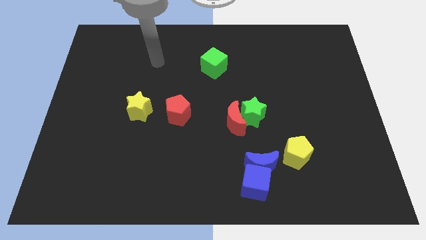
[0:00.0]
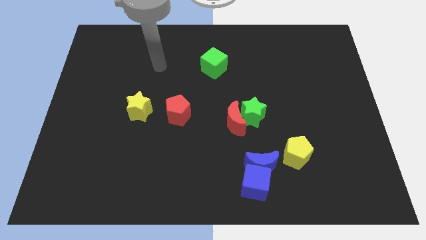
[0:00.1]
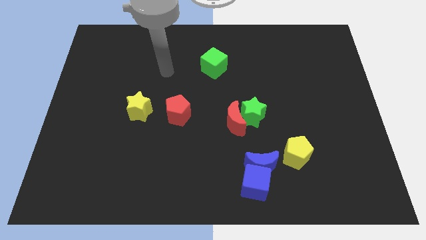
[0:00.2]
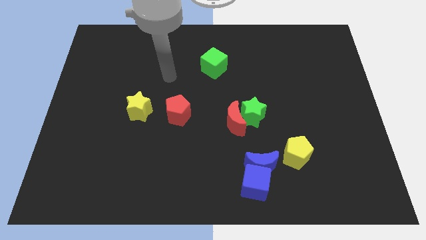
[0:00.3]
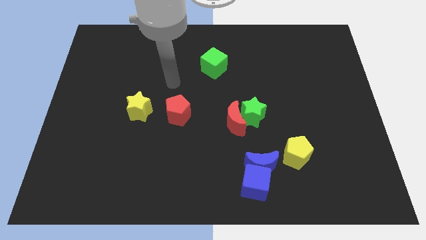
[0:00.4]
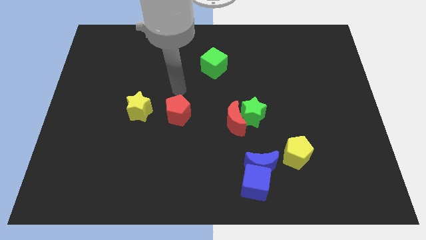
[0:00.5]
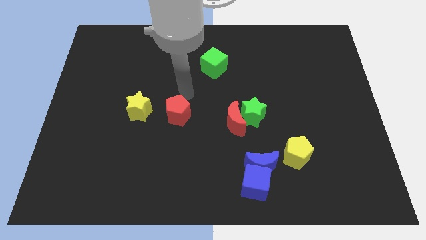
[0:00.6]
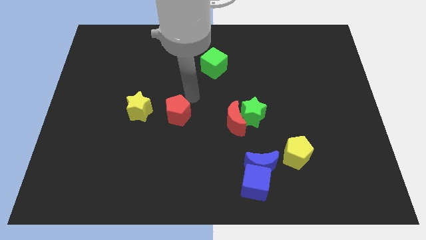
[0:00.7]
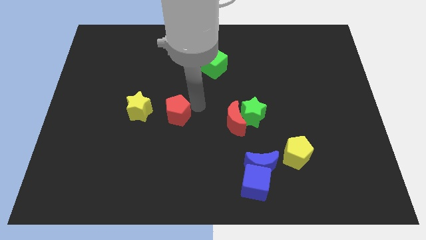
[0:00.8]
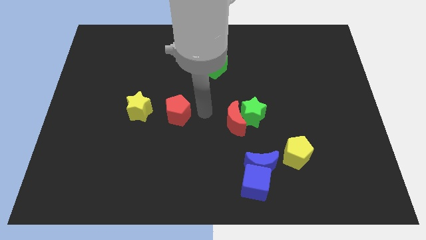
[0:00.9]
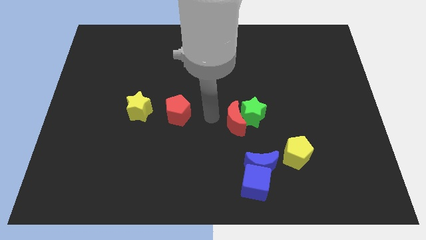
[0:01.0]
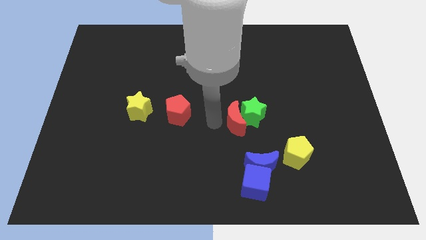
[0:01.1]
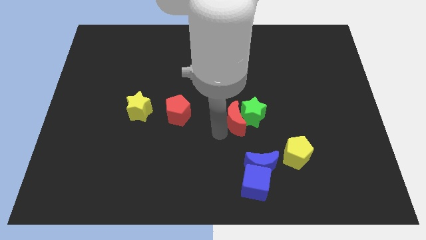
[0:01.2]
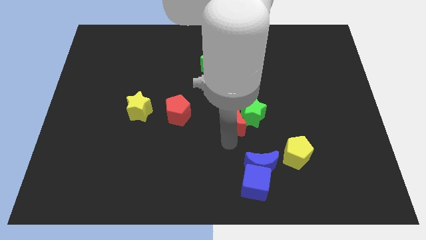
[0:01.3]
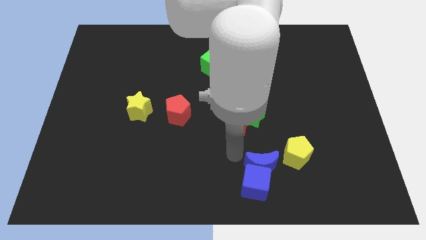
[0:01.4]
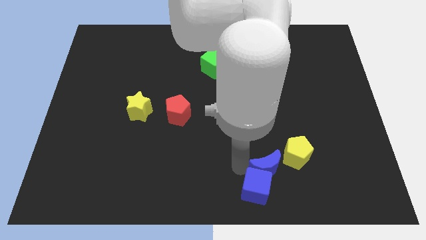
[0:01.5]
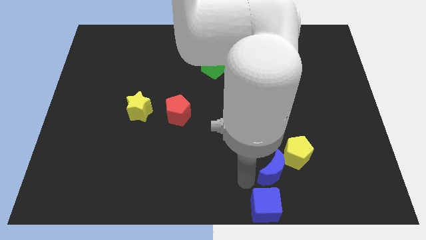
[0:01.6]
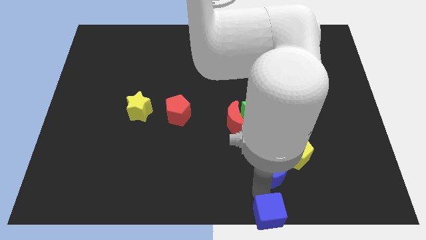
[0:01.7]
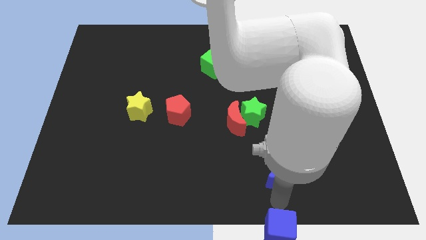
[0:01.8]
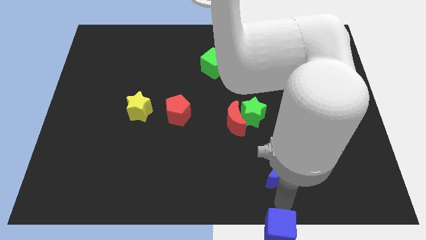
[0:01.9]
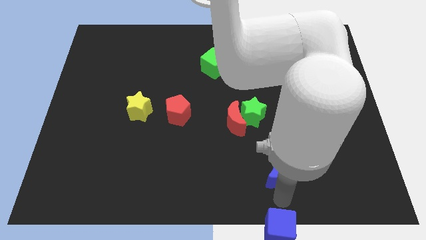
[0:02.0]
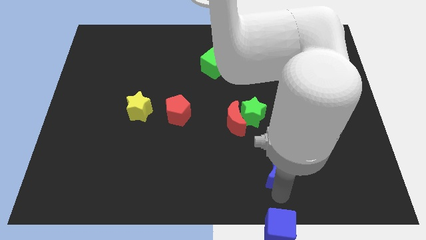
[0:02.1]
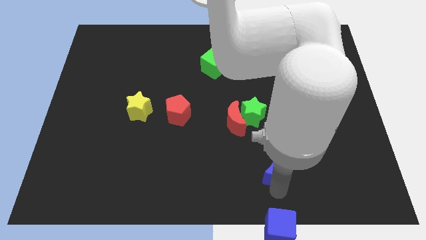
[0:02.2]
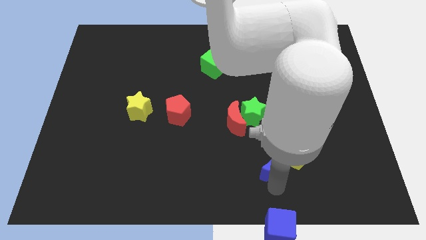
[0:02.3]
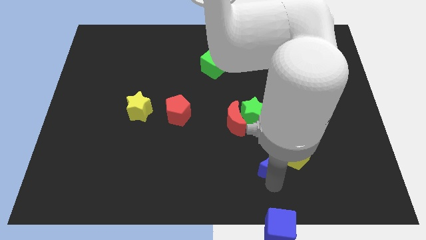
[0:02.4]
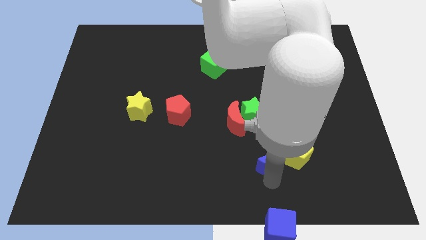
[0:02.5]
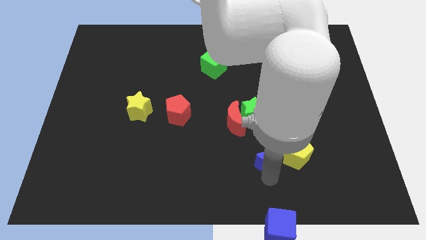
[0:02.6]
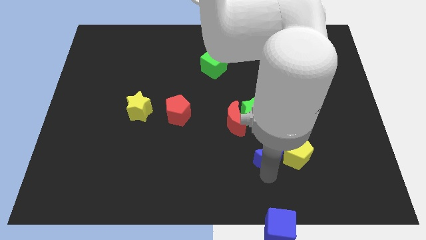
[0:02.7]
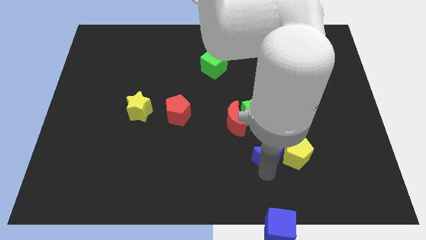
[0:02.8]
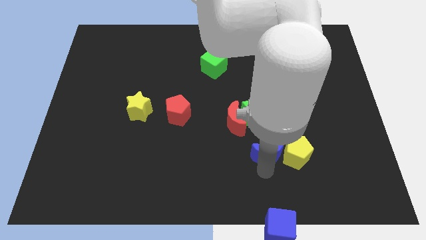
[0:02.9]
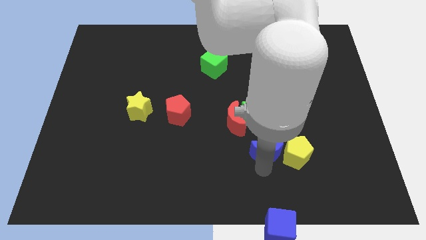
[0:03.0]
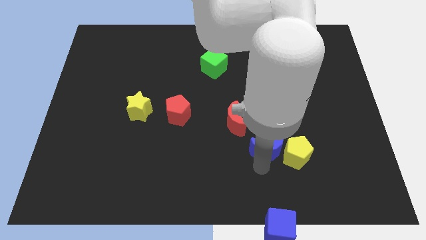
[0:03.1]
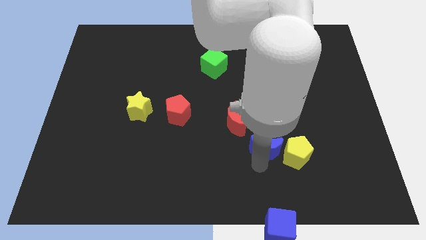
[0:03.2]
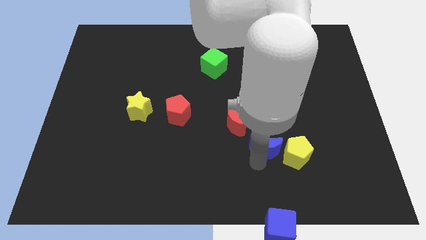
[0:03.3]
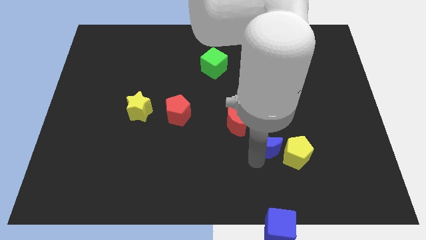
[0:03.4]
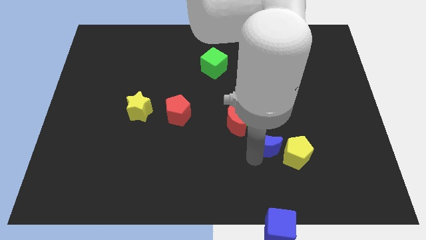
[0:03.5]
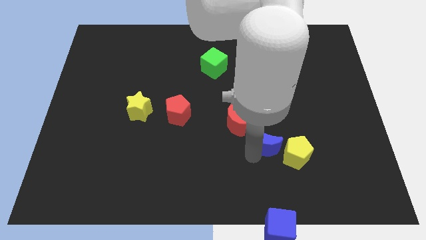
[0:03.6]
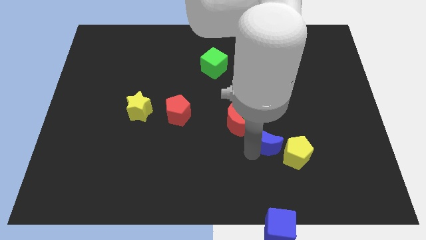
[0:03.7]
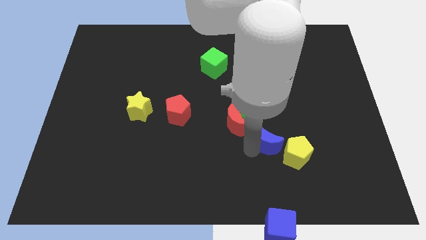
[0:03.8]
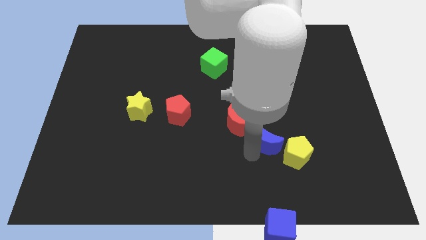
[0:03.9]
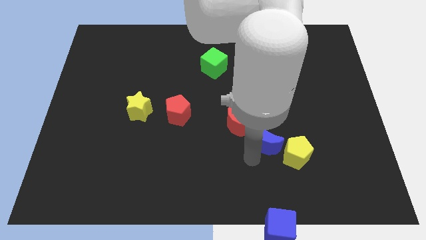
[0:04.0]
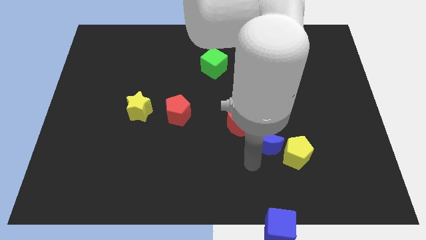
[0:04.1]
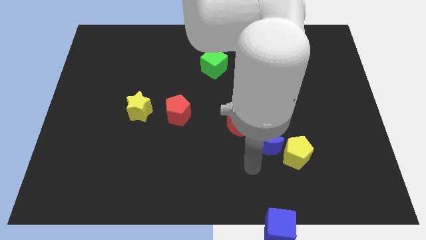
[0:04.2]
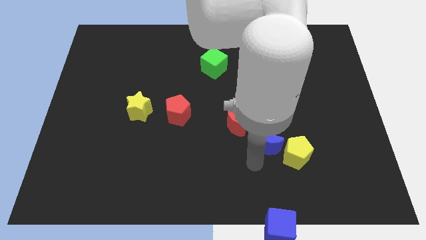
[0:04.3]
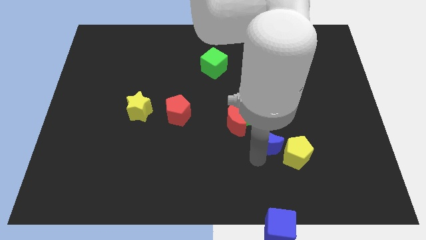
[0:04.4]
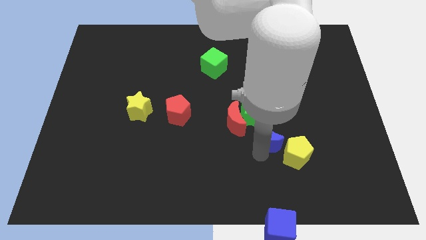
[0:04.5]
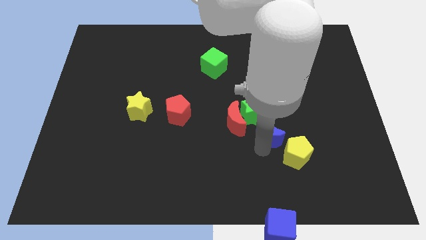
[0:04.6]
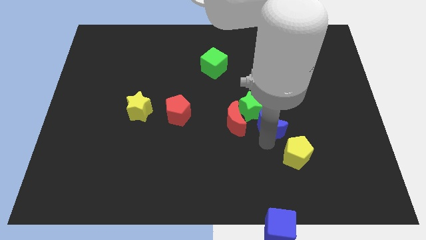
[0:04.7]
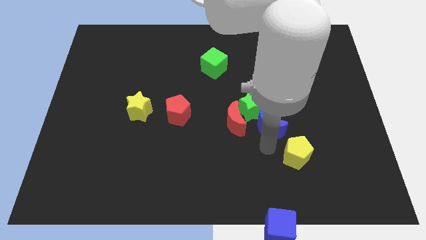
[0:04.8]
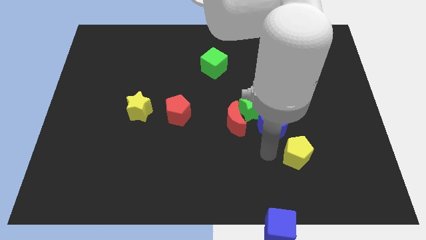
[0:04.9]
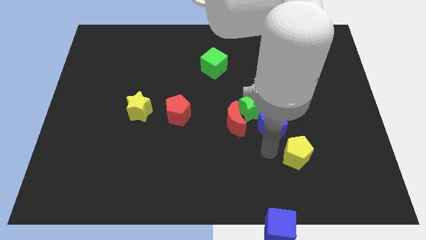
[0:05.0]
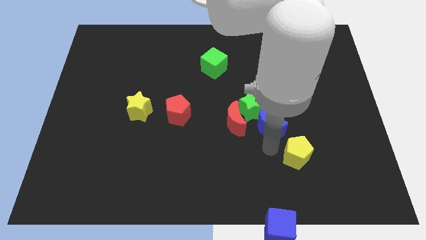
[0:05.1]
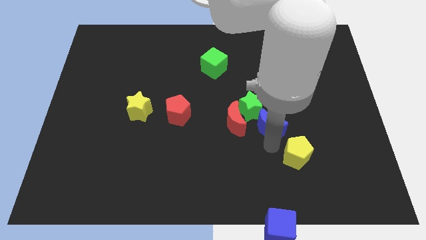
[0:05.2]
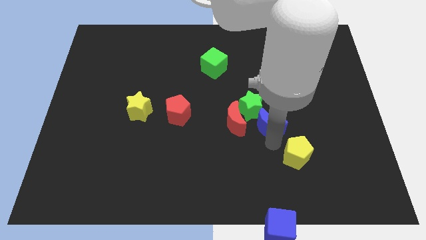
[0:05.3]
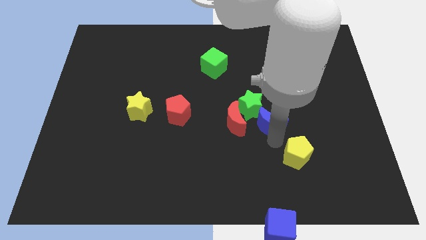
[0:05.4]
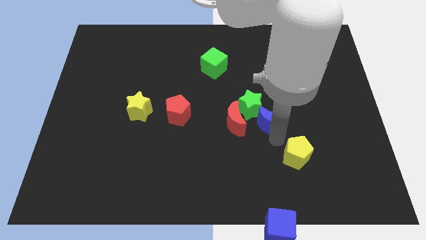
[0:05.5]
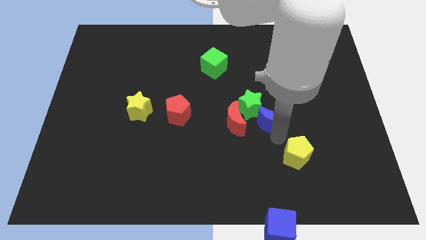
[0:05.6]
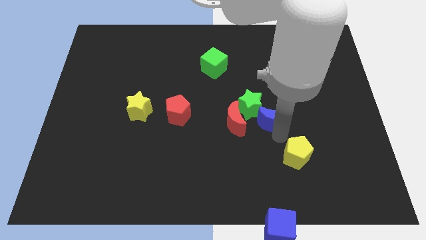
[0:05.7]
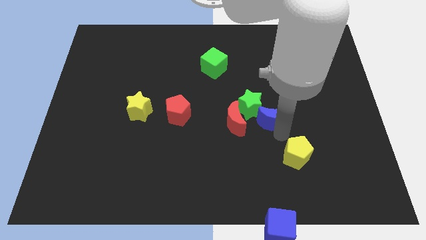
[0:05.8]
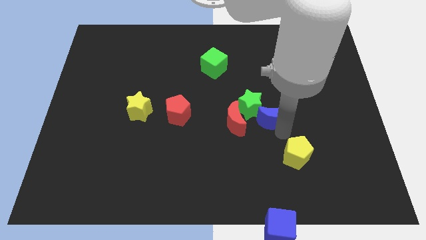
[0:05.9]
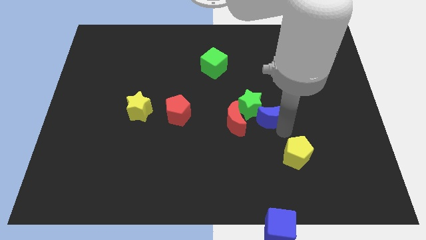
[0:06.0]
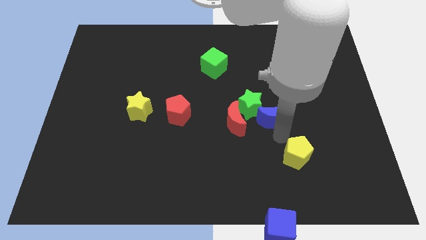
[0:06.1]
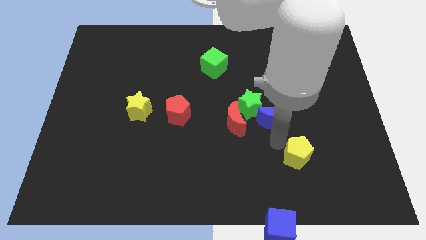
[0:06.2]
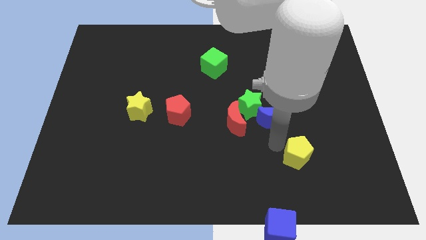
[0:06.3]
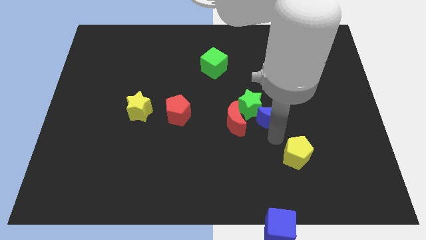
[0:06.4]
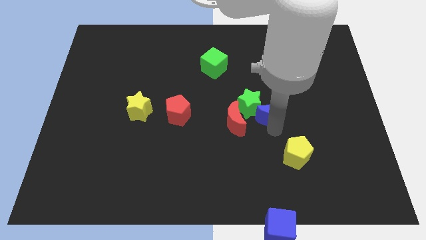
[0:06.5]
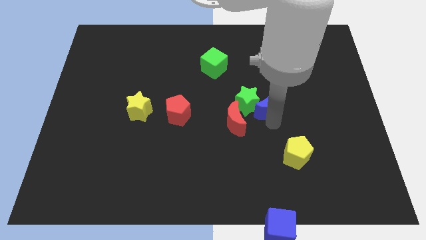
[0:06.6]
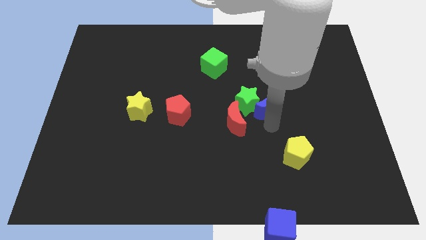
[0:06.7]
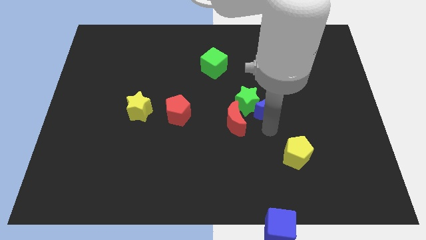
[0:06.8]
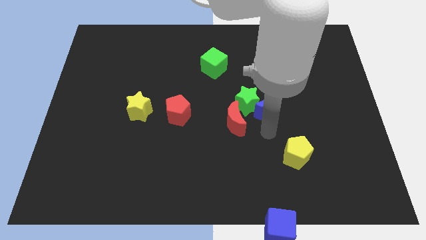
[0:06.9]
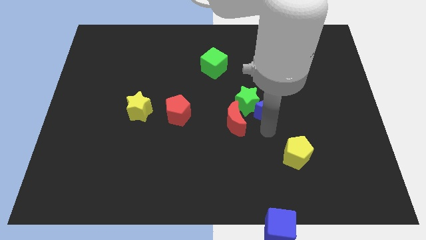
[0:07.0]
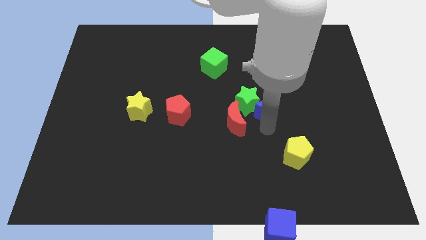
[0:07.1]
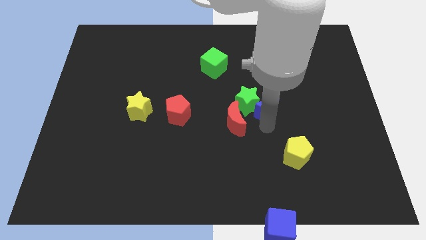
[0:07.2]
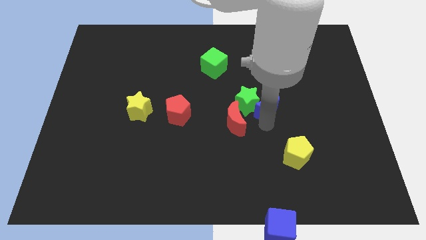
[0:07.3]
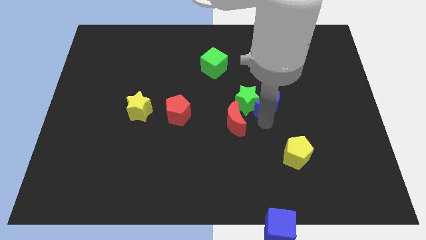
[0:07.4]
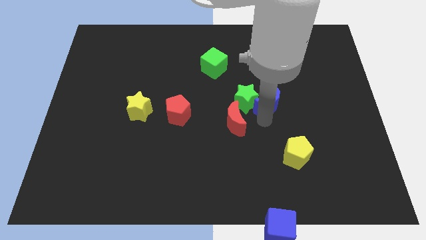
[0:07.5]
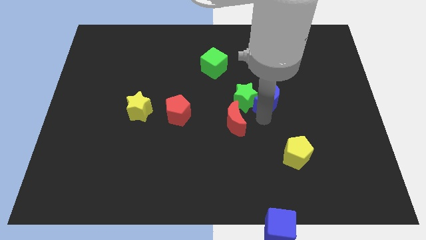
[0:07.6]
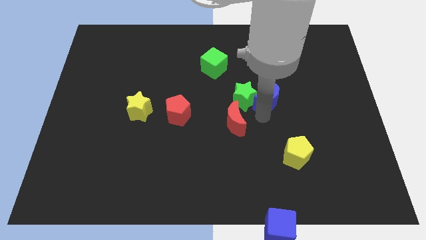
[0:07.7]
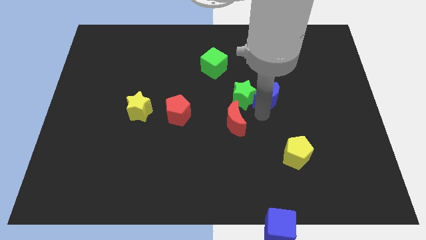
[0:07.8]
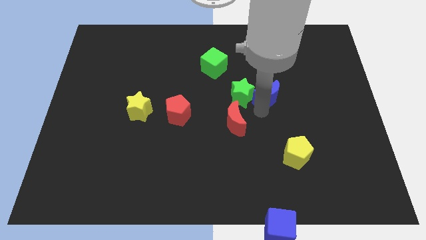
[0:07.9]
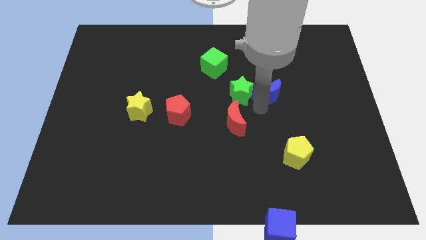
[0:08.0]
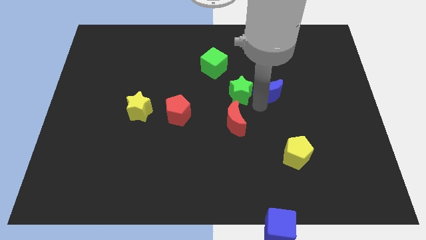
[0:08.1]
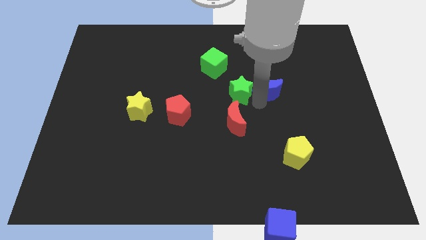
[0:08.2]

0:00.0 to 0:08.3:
push the blue moon upwards
